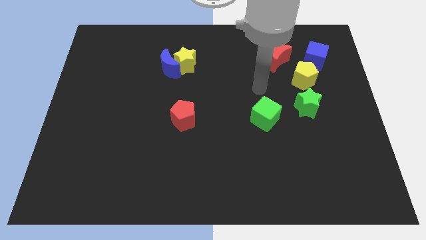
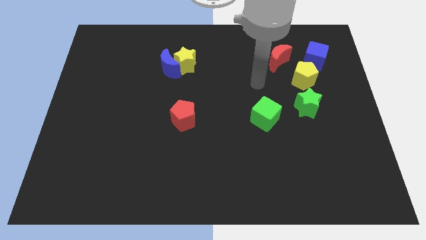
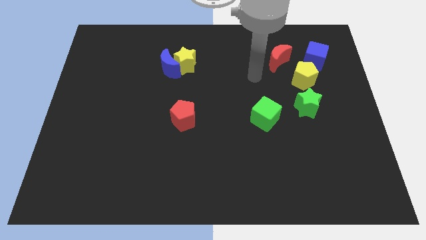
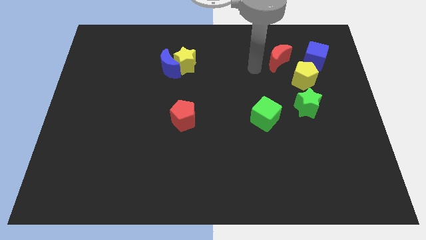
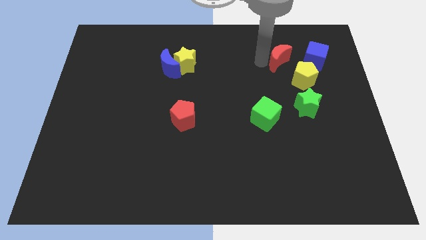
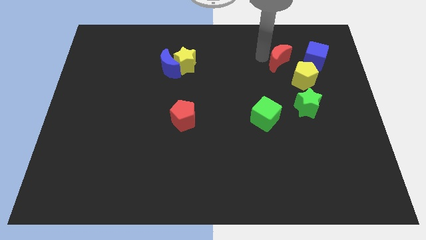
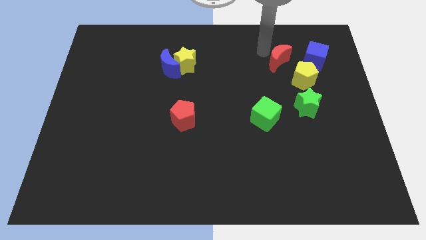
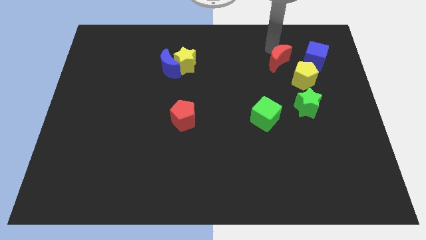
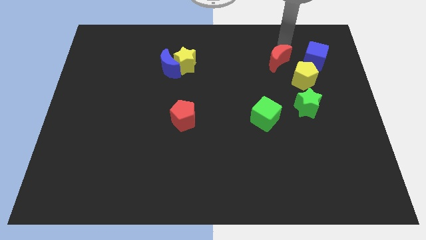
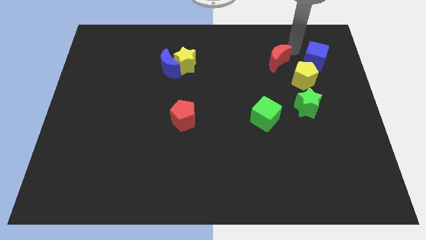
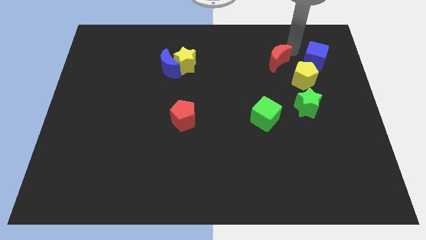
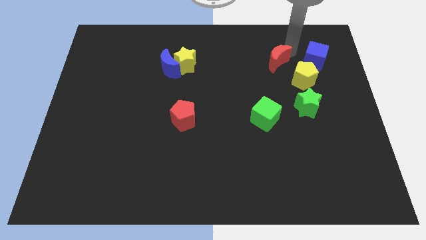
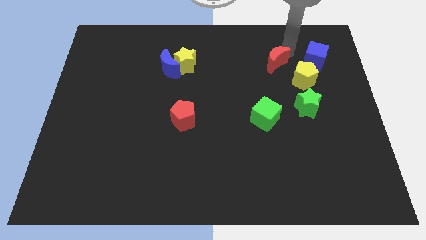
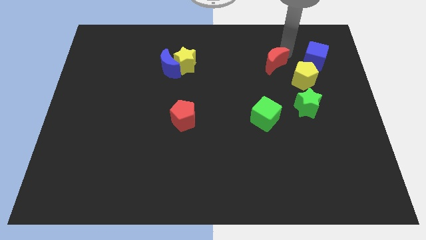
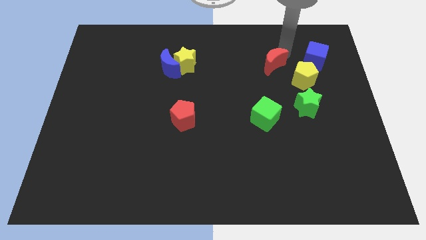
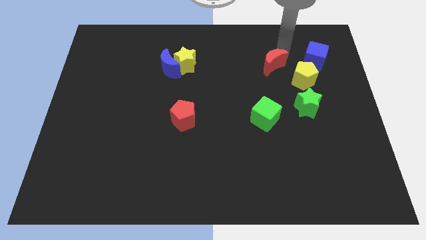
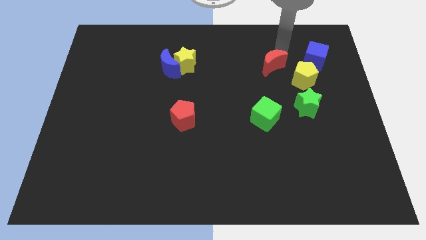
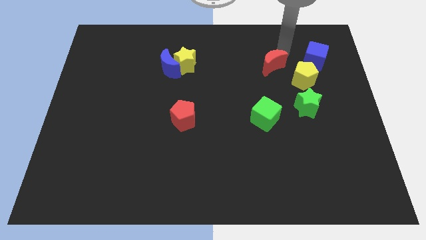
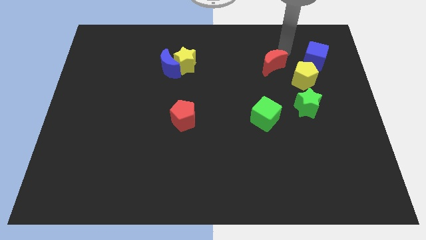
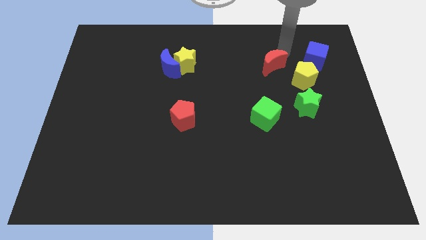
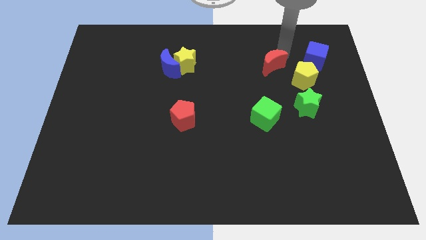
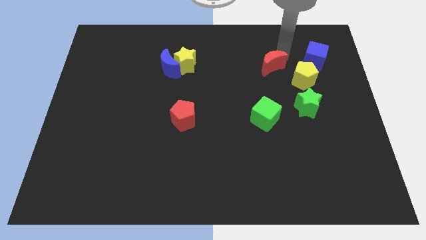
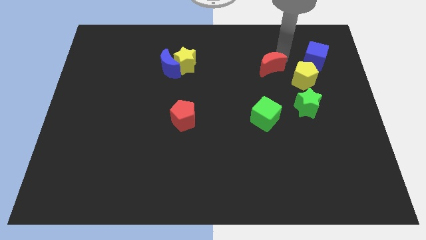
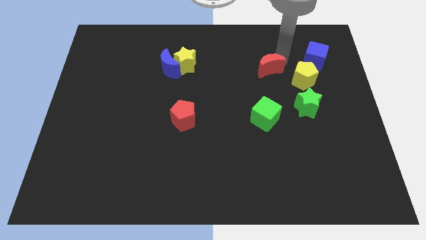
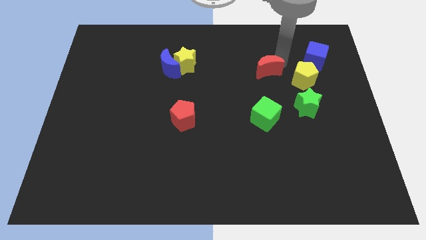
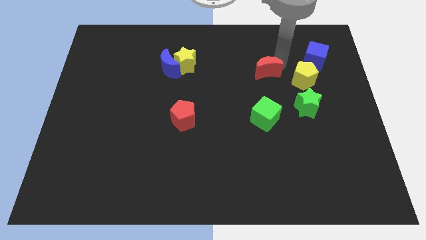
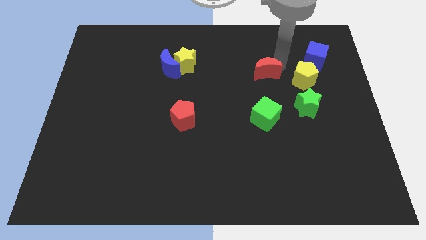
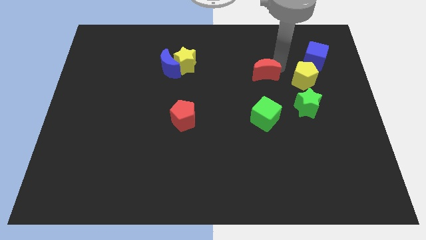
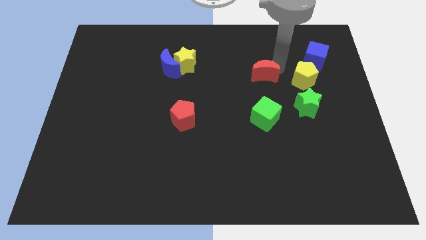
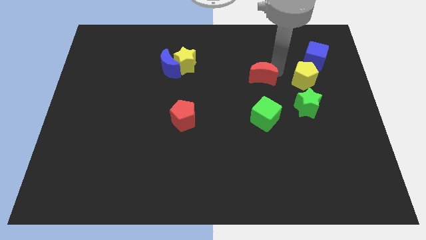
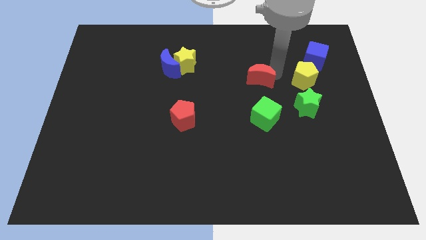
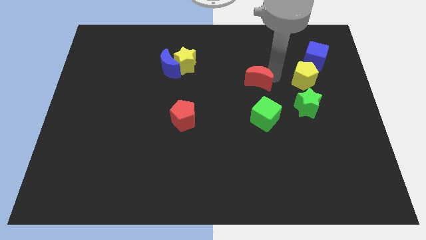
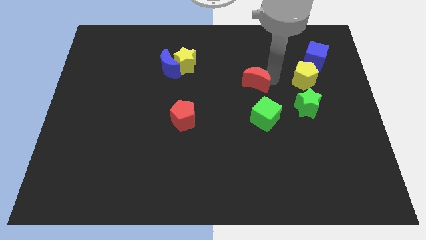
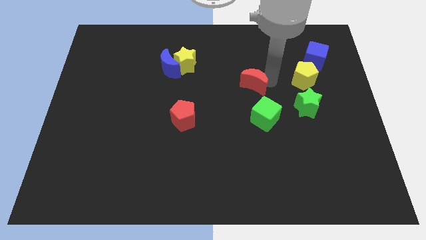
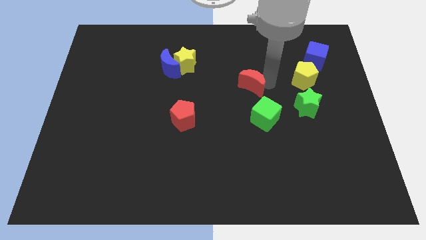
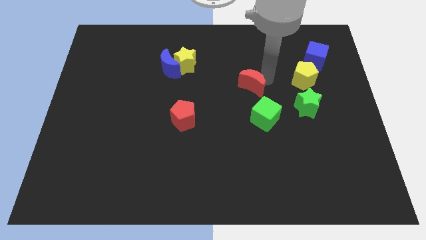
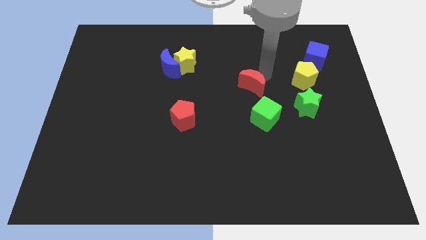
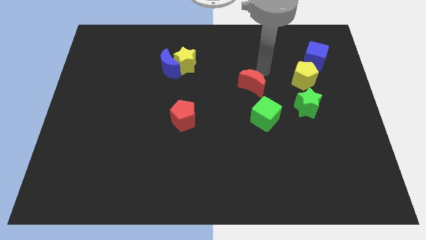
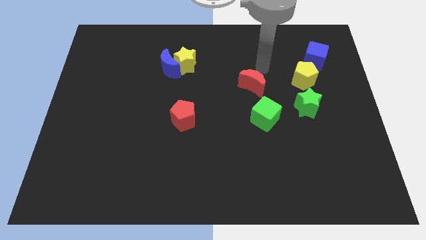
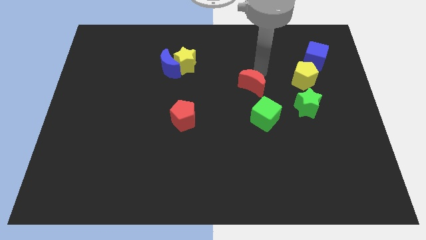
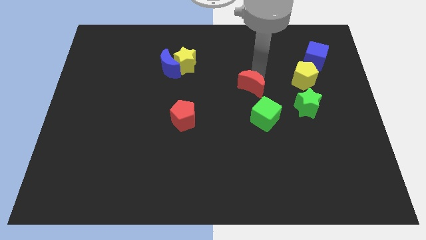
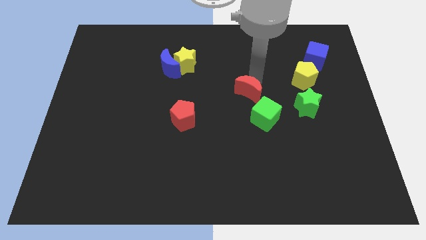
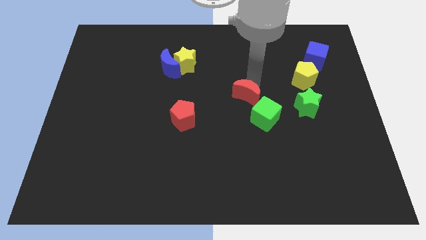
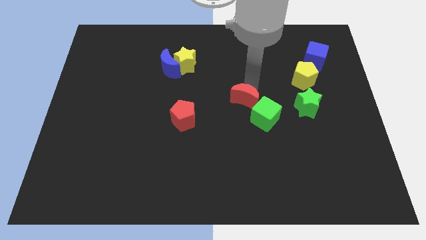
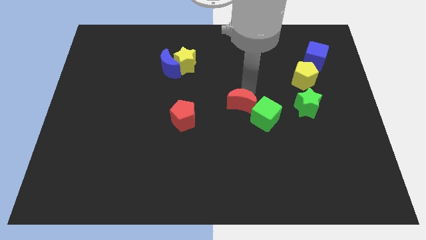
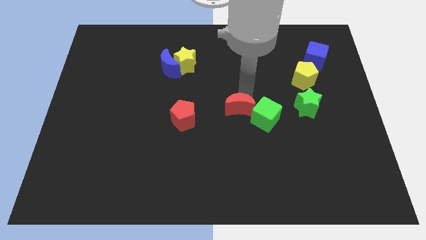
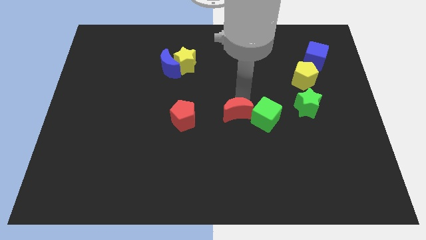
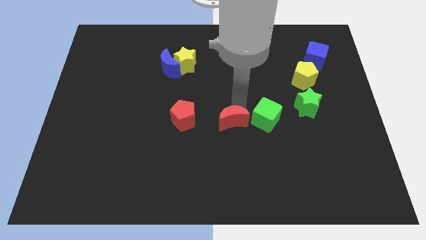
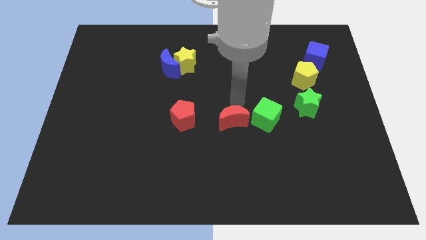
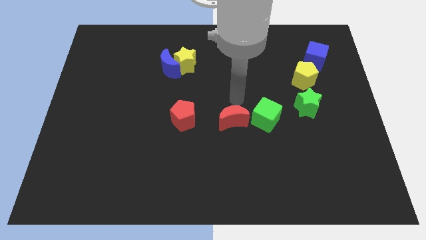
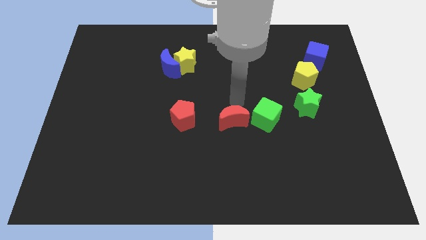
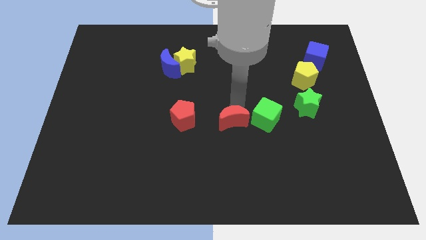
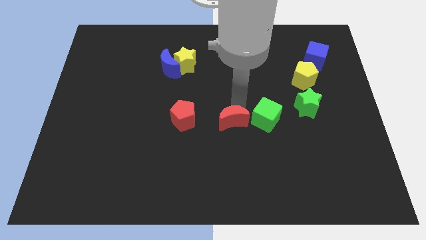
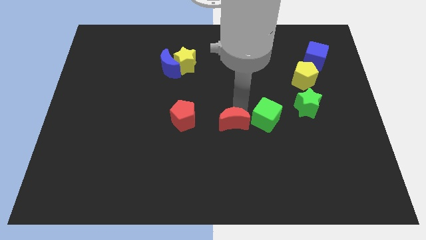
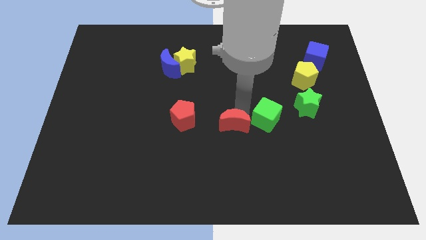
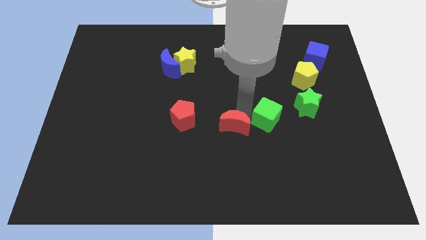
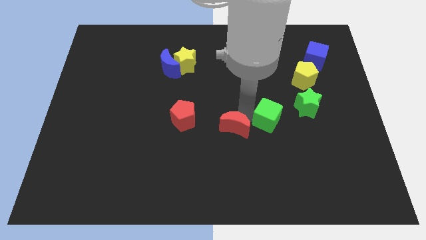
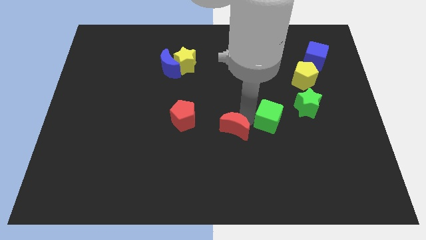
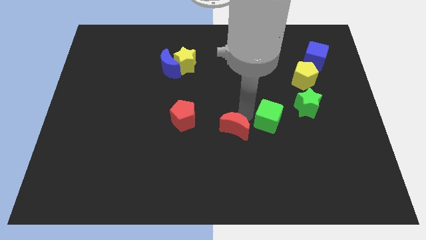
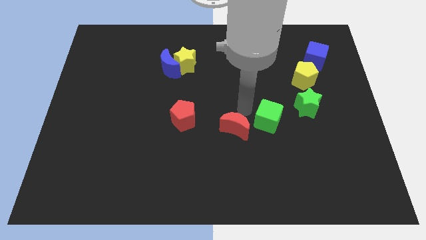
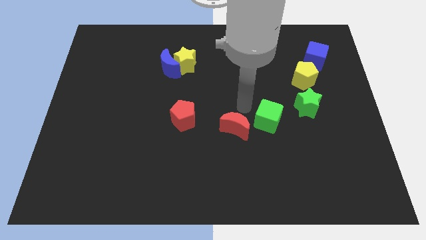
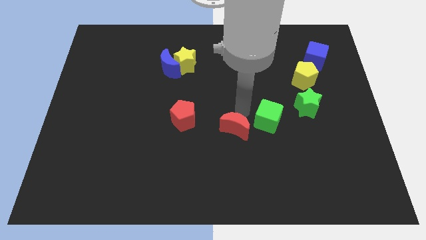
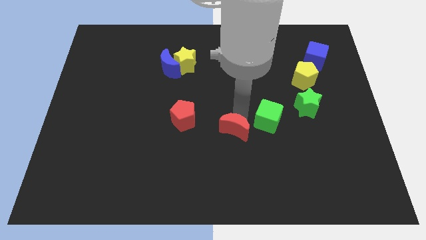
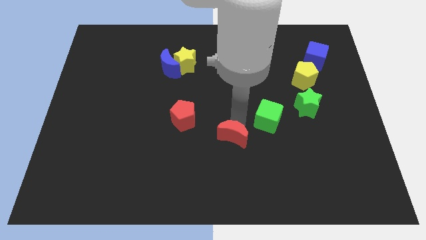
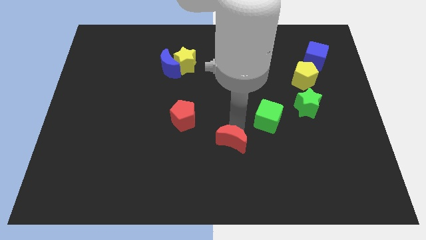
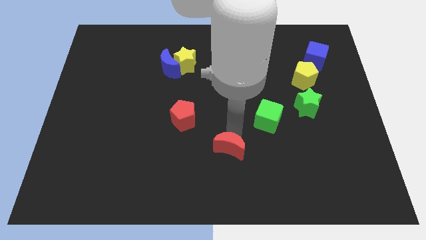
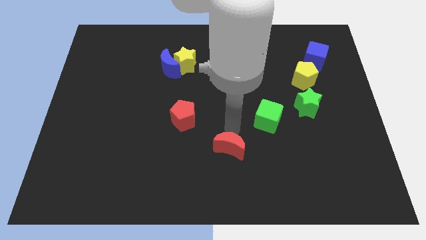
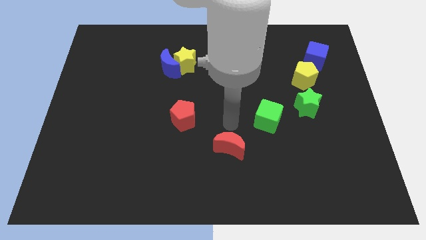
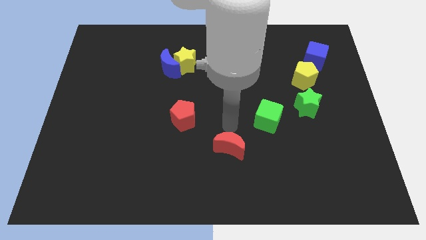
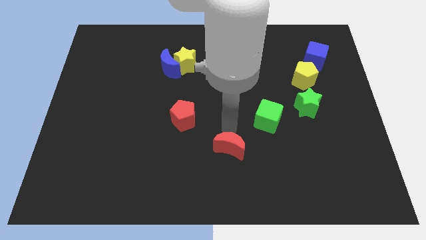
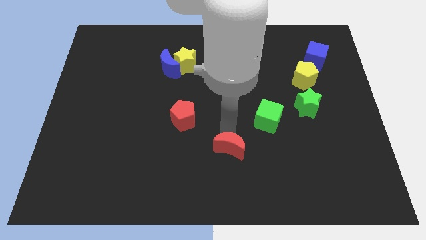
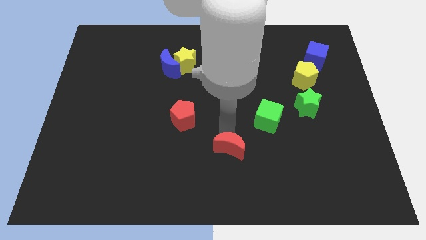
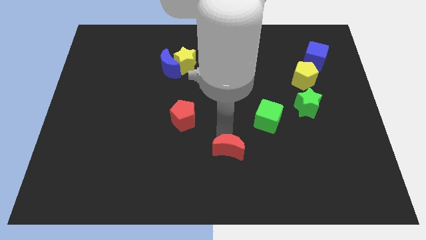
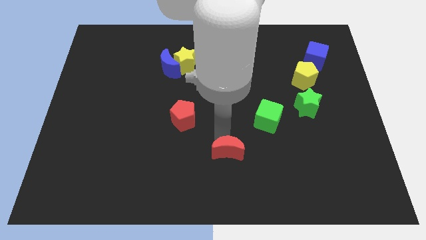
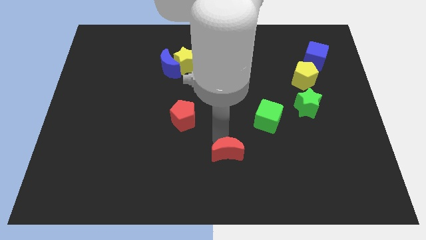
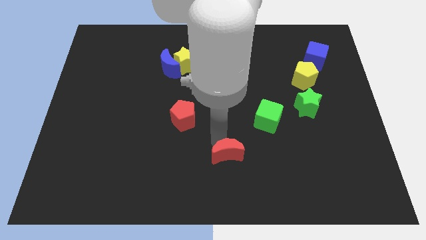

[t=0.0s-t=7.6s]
put the red moon to the bottom side
